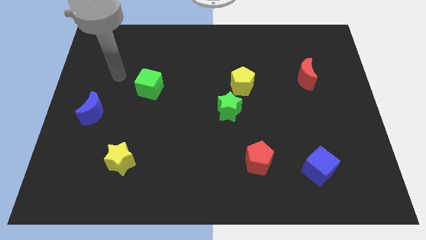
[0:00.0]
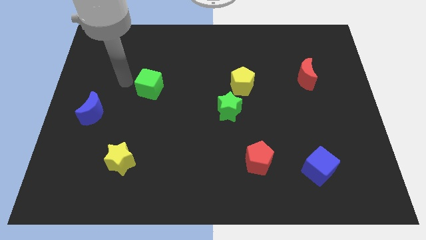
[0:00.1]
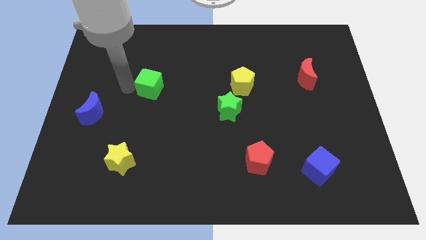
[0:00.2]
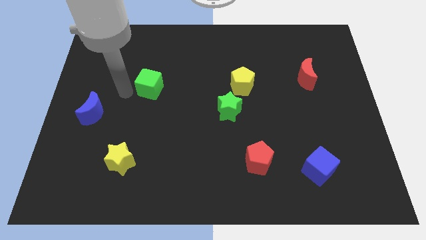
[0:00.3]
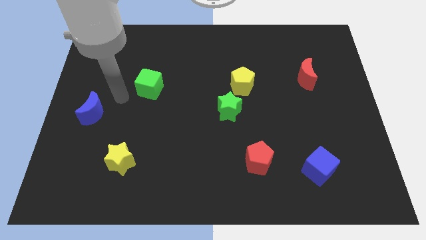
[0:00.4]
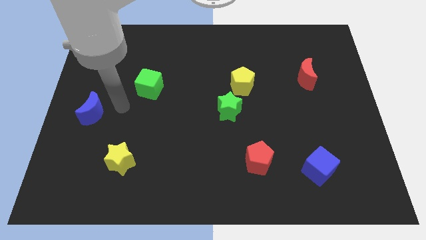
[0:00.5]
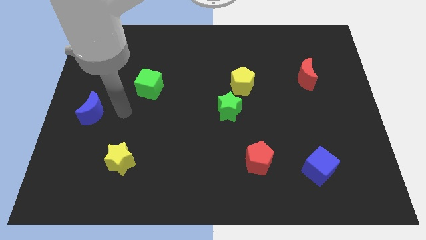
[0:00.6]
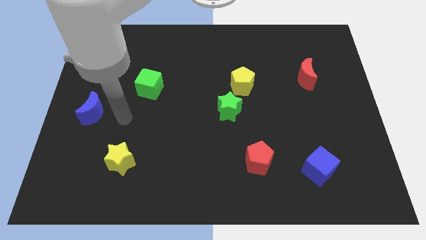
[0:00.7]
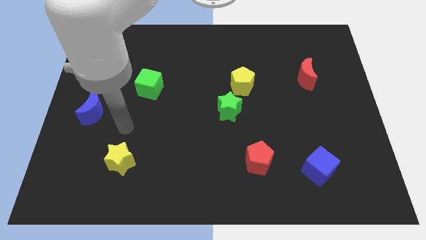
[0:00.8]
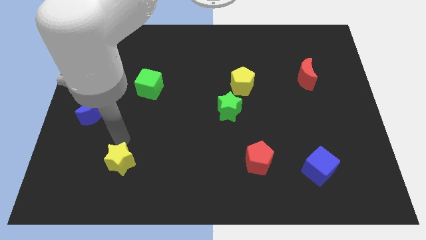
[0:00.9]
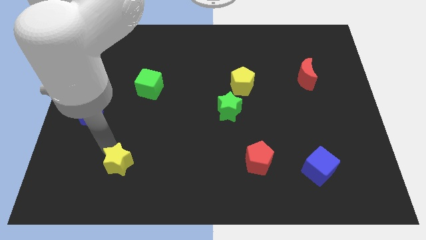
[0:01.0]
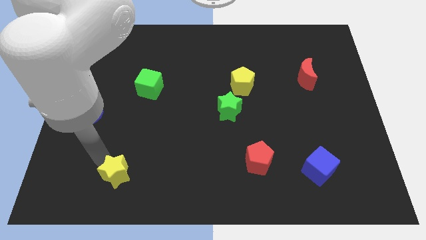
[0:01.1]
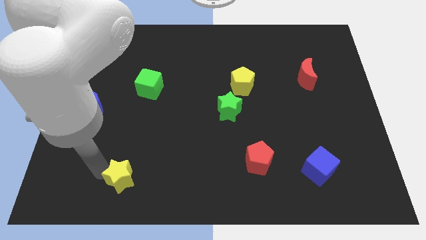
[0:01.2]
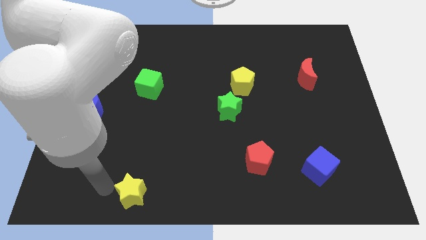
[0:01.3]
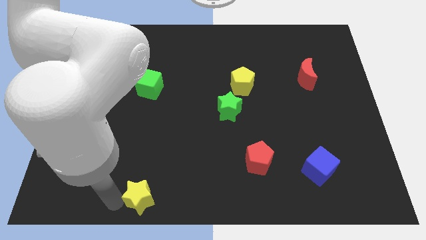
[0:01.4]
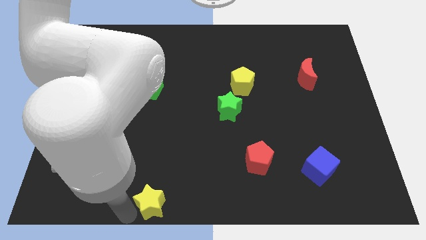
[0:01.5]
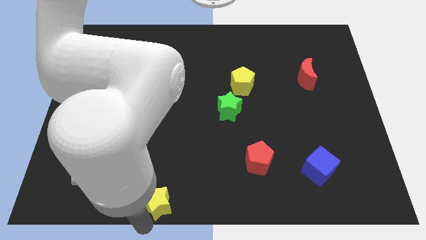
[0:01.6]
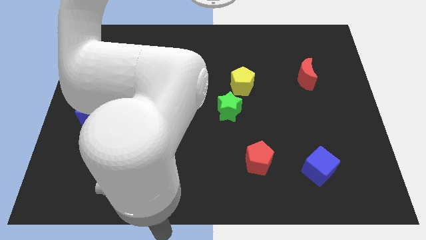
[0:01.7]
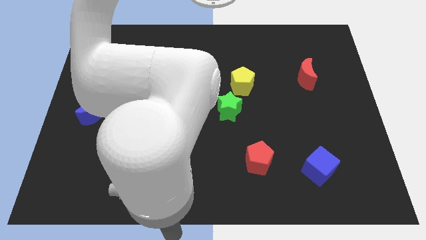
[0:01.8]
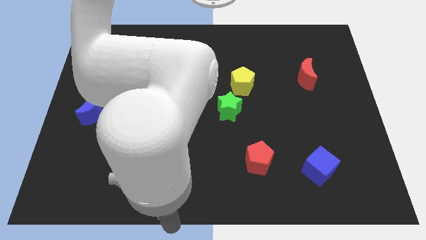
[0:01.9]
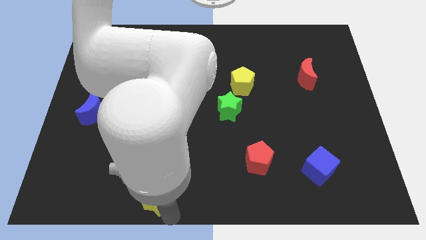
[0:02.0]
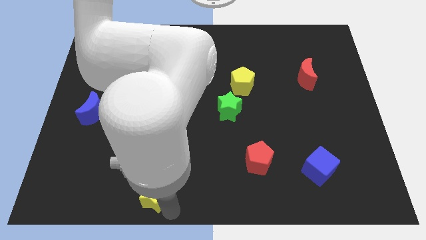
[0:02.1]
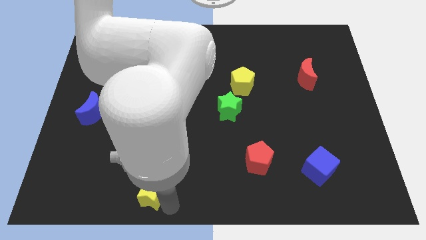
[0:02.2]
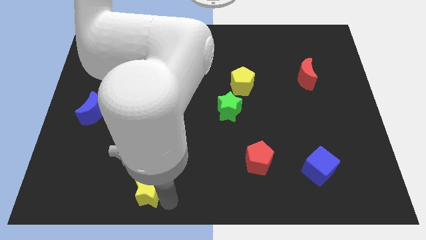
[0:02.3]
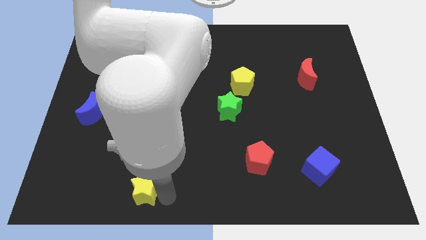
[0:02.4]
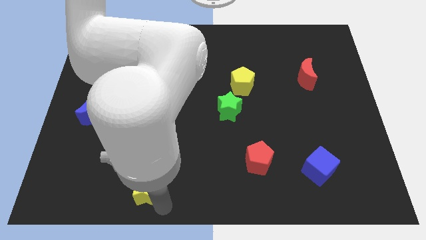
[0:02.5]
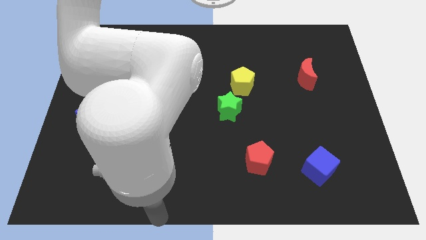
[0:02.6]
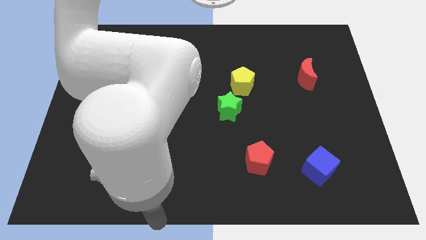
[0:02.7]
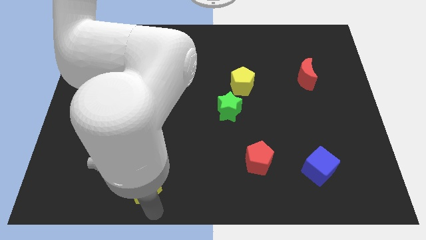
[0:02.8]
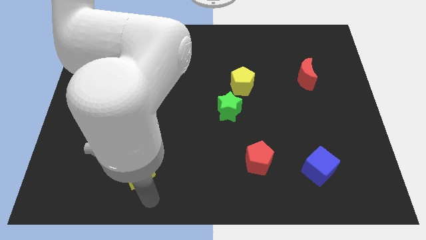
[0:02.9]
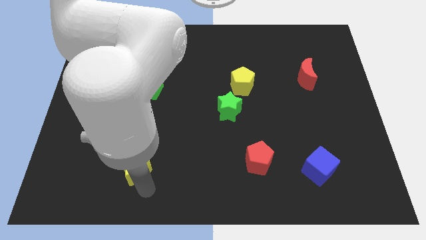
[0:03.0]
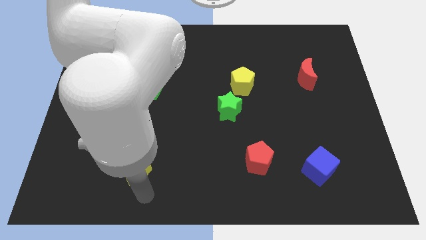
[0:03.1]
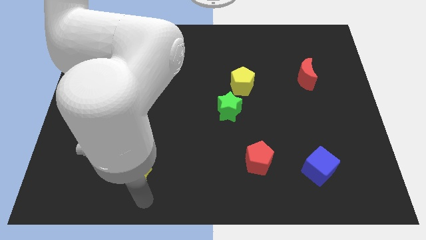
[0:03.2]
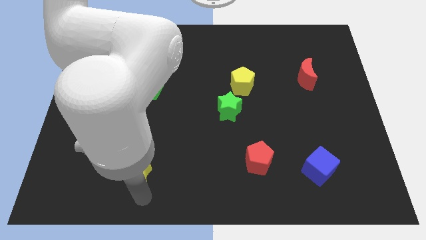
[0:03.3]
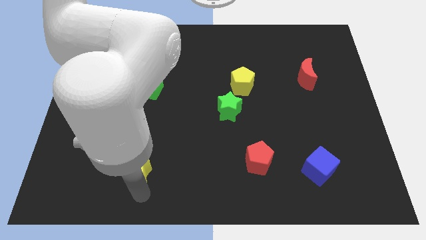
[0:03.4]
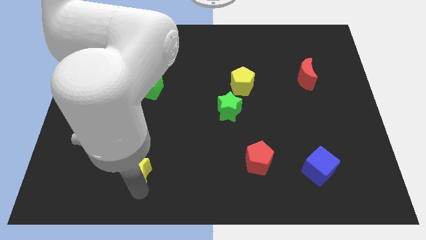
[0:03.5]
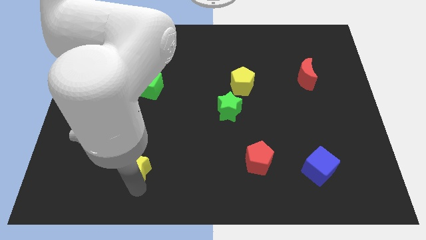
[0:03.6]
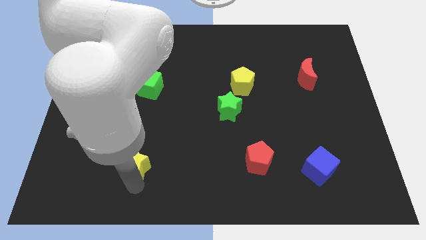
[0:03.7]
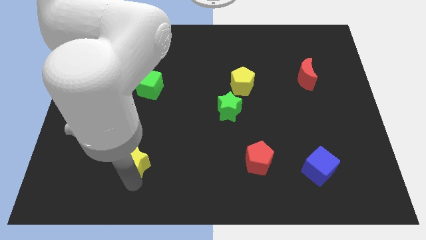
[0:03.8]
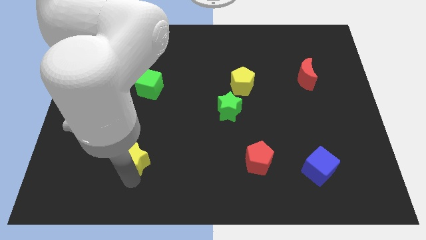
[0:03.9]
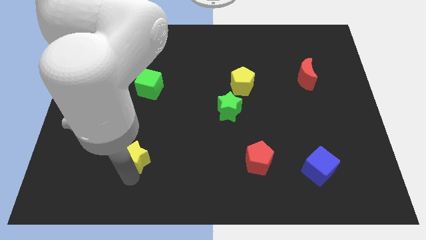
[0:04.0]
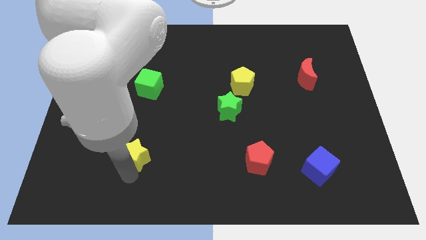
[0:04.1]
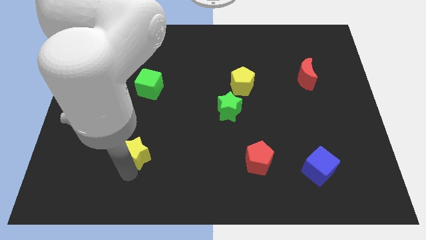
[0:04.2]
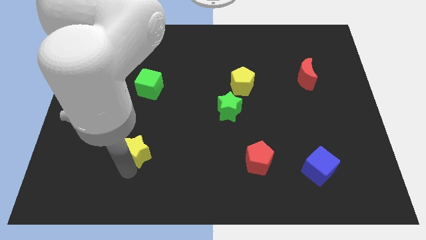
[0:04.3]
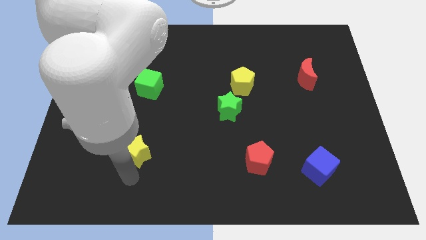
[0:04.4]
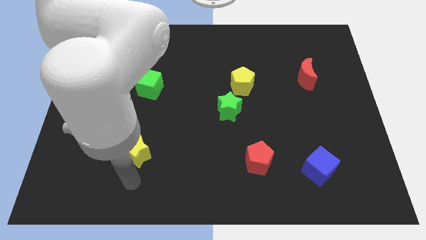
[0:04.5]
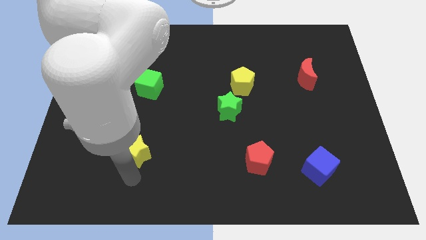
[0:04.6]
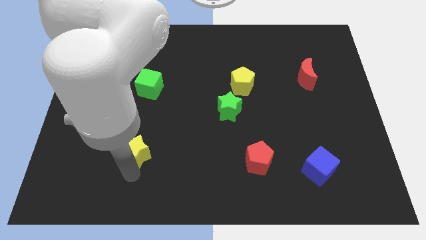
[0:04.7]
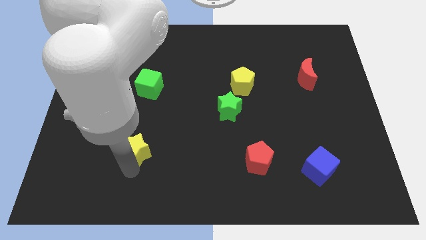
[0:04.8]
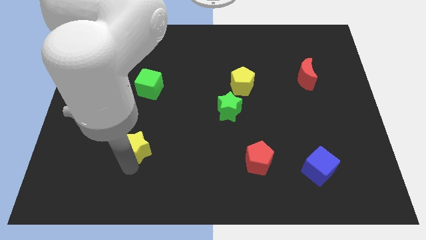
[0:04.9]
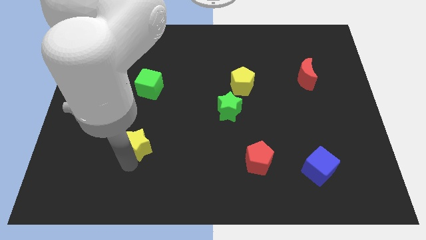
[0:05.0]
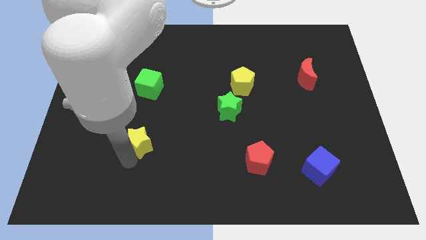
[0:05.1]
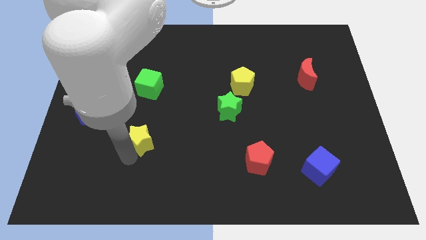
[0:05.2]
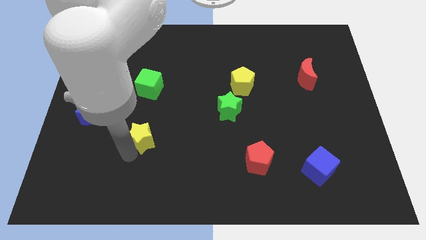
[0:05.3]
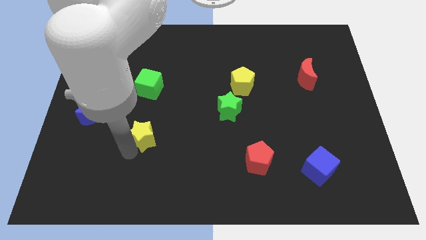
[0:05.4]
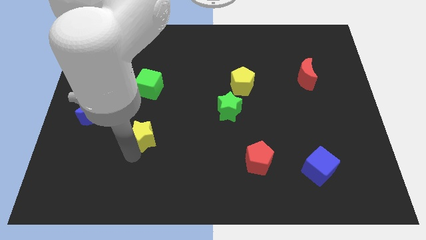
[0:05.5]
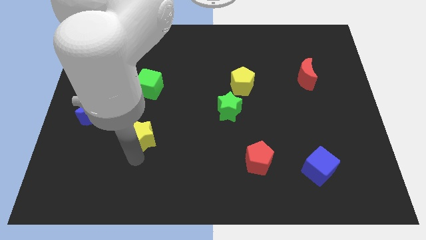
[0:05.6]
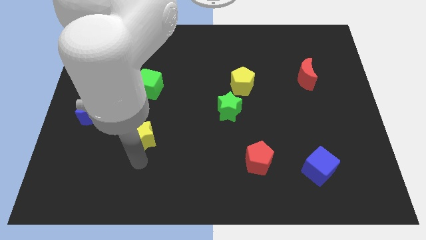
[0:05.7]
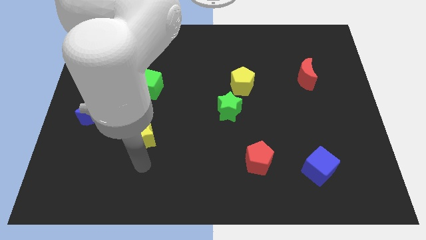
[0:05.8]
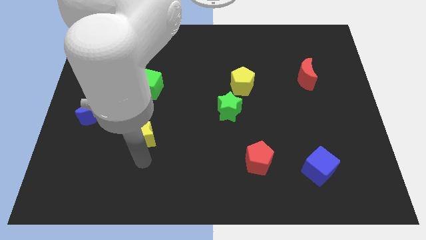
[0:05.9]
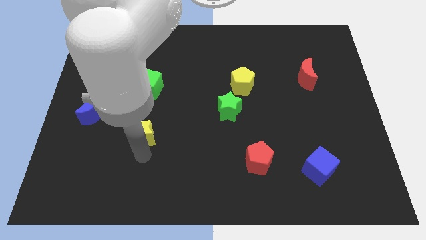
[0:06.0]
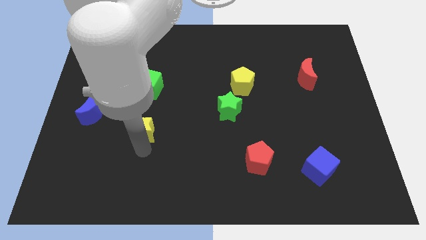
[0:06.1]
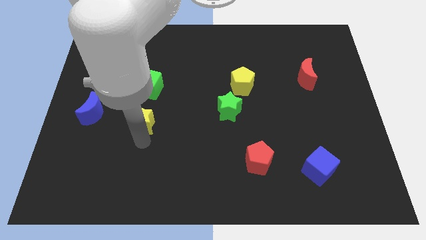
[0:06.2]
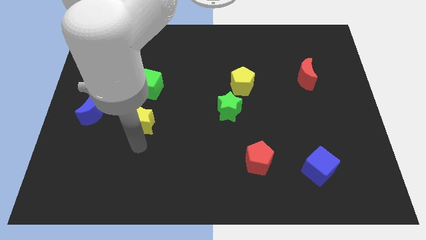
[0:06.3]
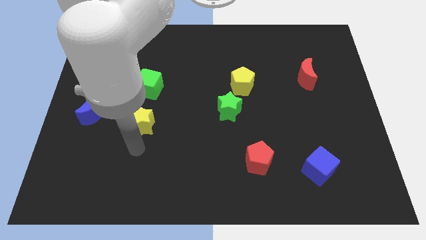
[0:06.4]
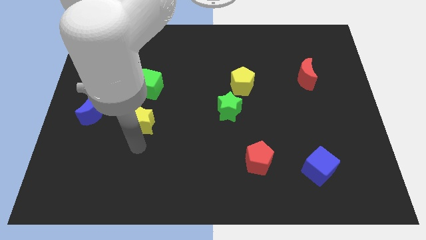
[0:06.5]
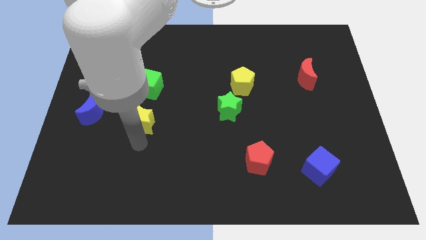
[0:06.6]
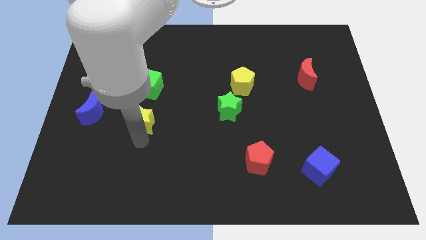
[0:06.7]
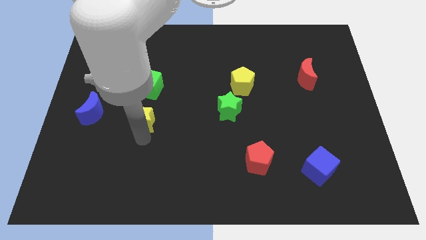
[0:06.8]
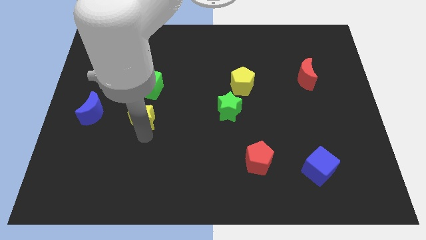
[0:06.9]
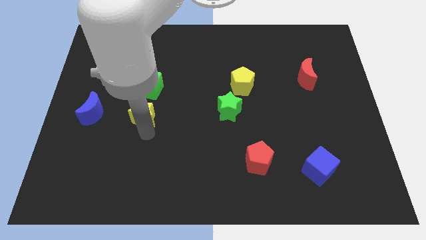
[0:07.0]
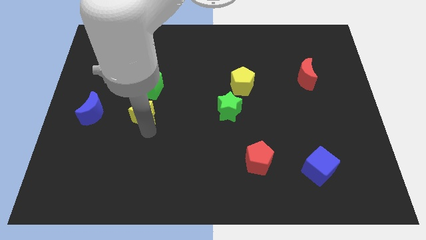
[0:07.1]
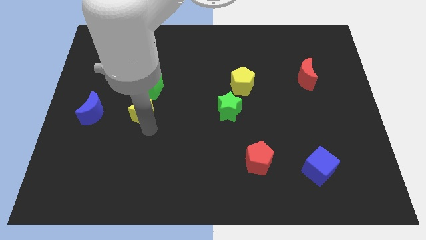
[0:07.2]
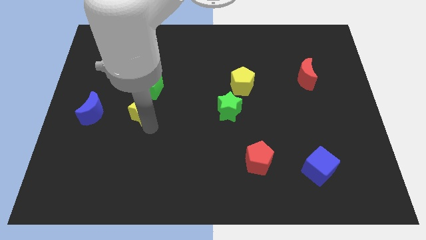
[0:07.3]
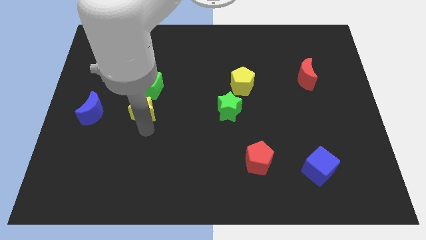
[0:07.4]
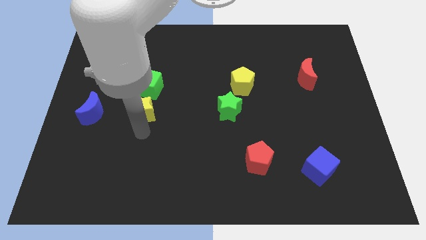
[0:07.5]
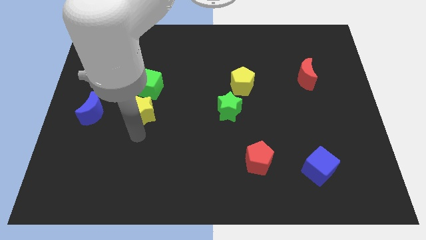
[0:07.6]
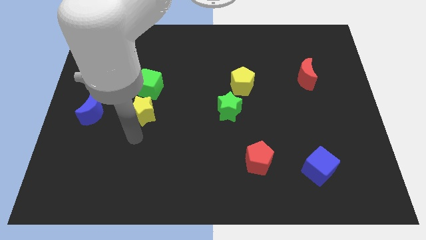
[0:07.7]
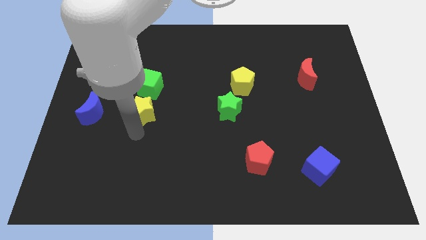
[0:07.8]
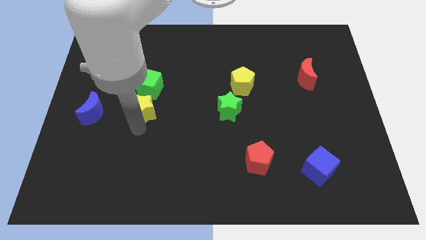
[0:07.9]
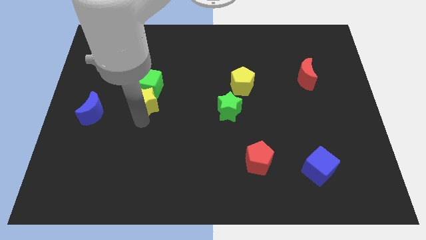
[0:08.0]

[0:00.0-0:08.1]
move the yellow star next to the green cube
